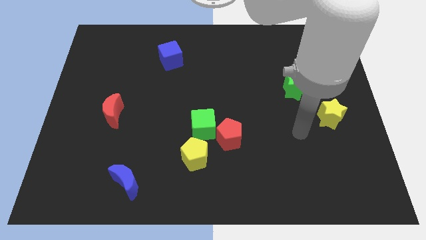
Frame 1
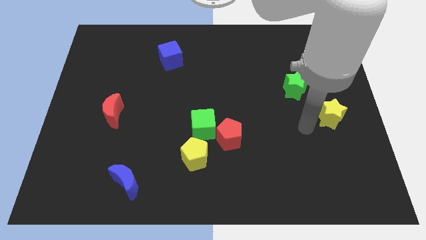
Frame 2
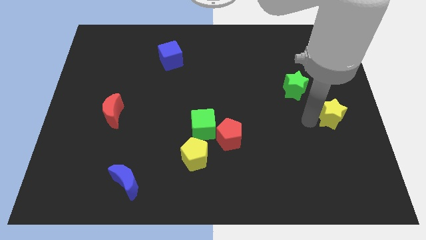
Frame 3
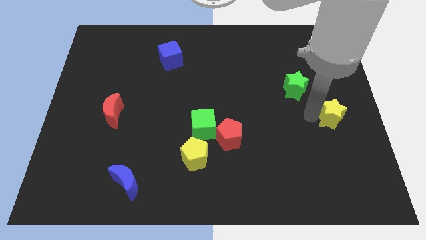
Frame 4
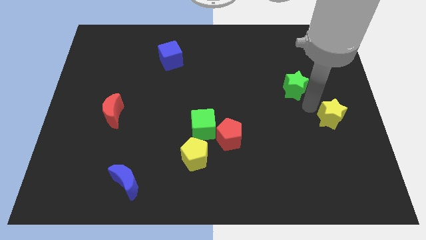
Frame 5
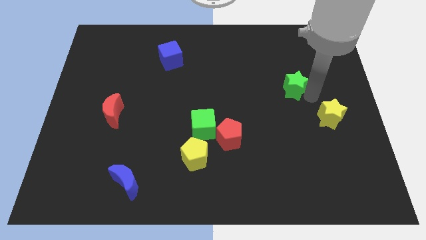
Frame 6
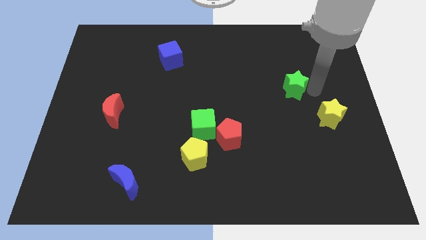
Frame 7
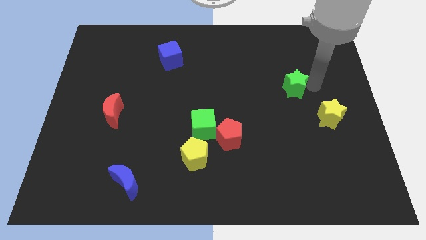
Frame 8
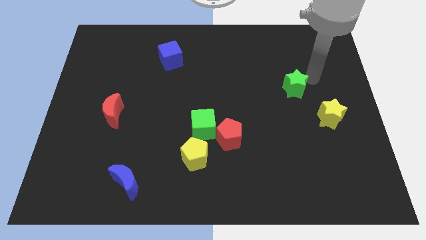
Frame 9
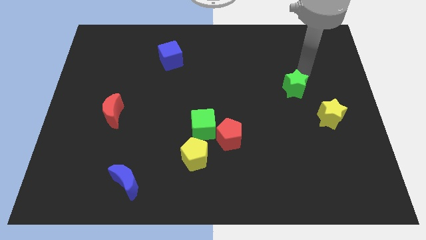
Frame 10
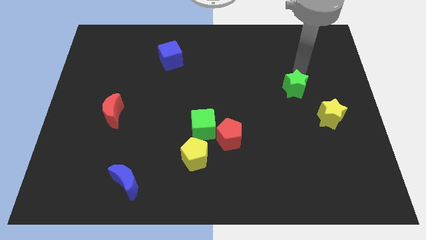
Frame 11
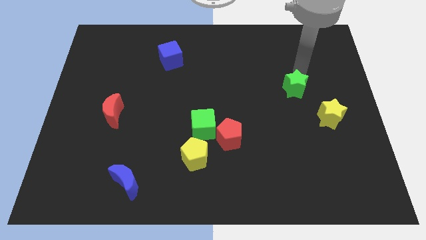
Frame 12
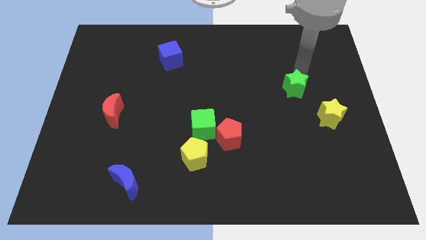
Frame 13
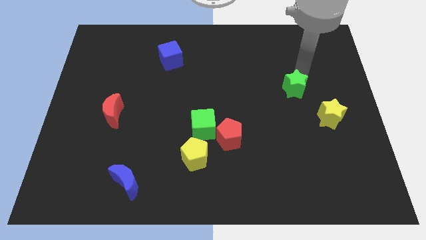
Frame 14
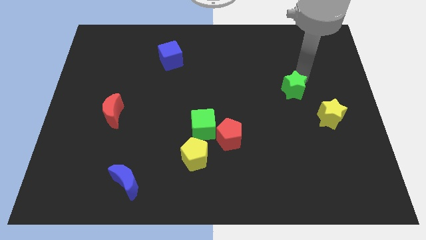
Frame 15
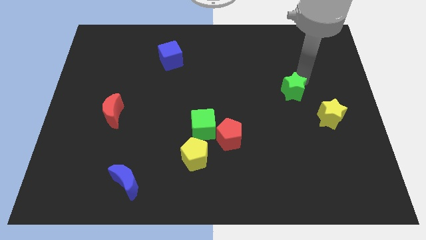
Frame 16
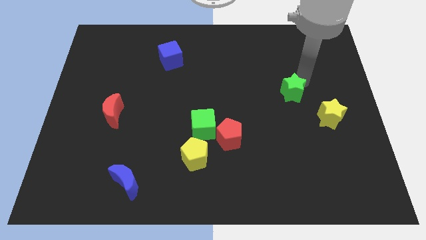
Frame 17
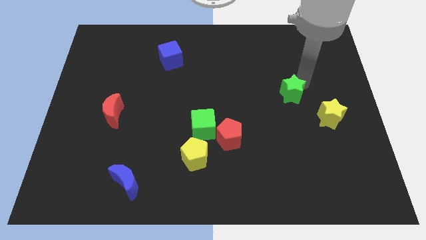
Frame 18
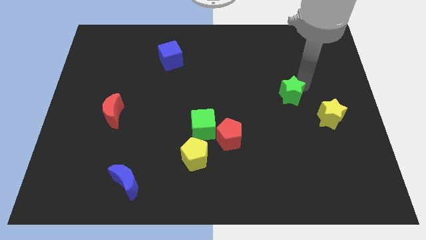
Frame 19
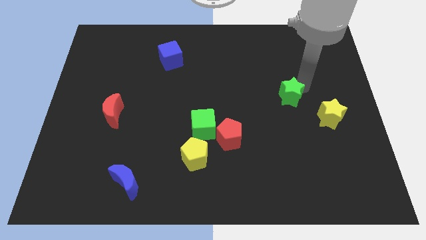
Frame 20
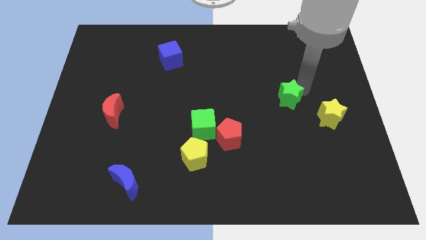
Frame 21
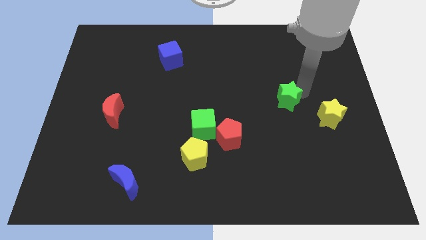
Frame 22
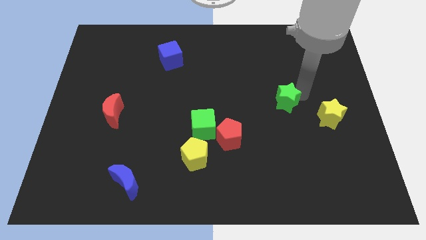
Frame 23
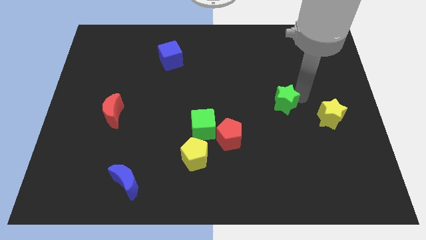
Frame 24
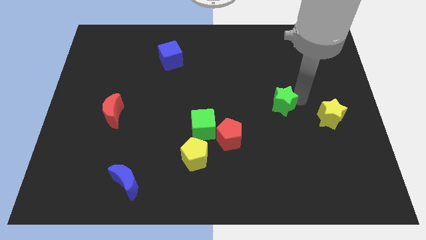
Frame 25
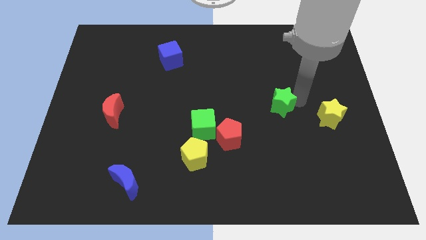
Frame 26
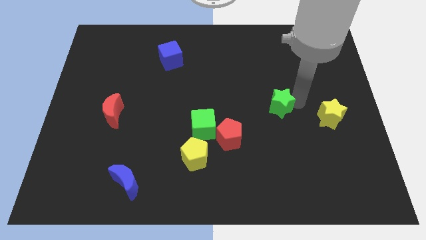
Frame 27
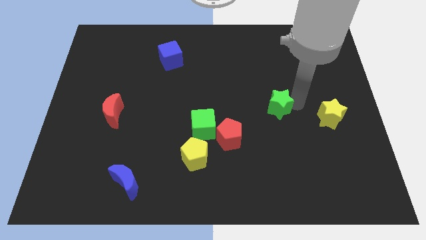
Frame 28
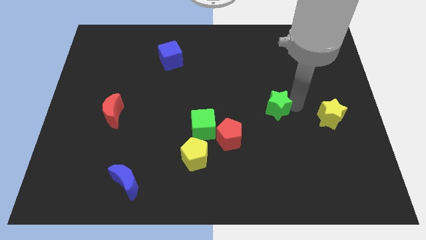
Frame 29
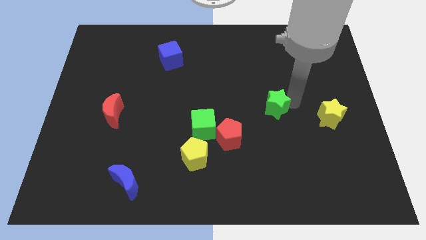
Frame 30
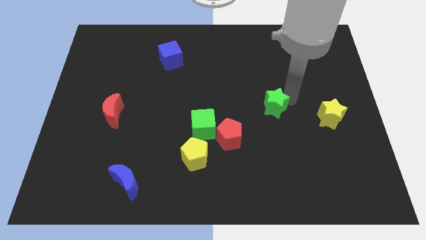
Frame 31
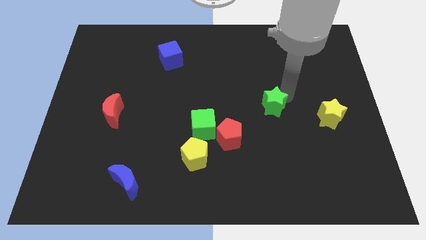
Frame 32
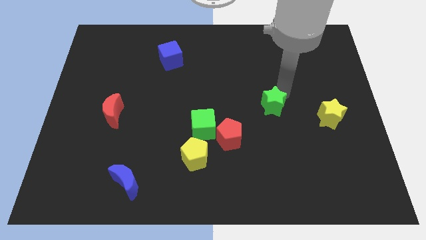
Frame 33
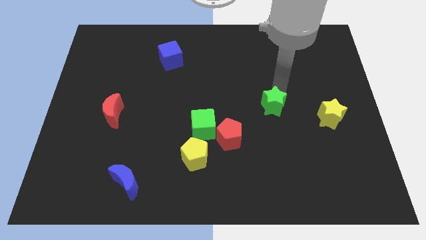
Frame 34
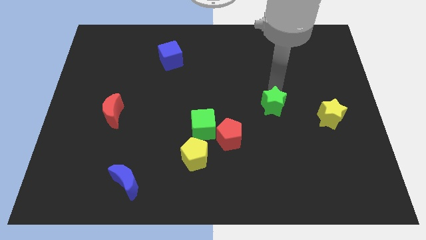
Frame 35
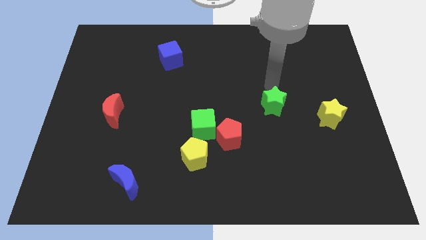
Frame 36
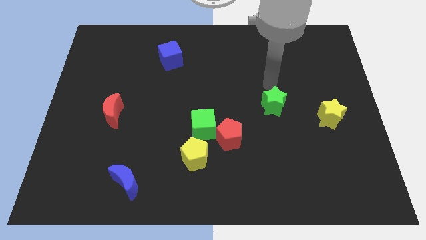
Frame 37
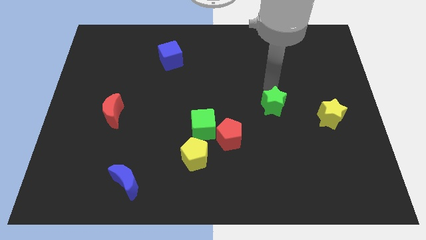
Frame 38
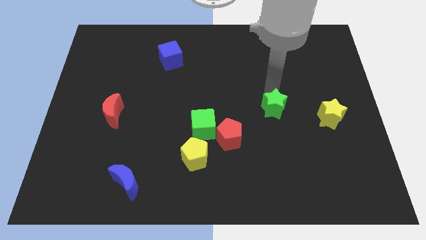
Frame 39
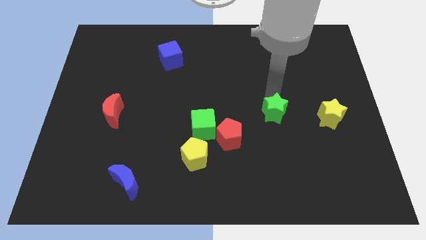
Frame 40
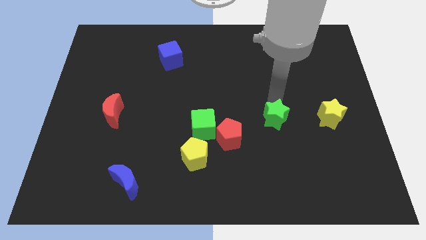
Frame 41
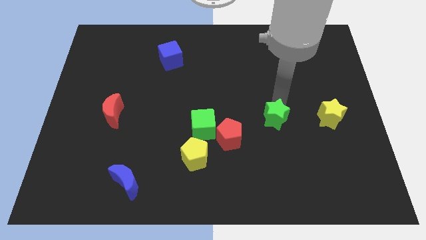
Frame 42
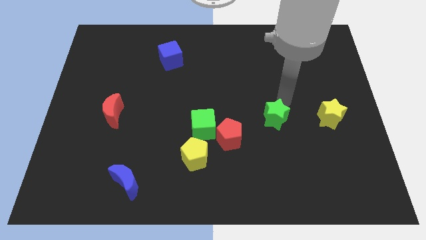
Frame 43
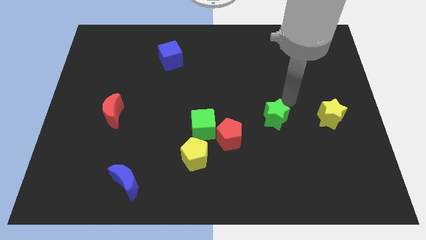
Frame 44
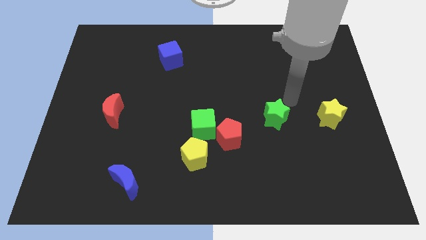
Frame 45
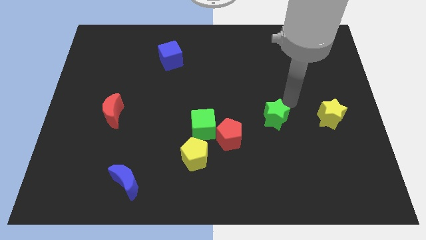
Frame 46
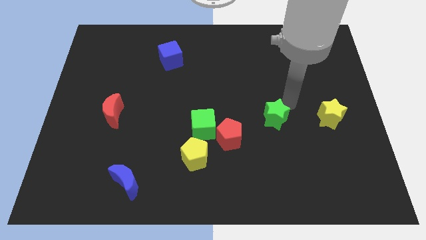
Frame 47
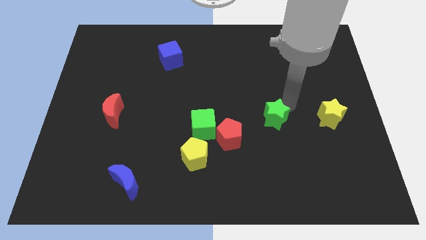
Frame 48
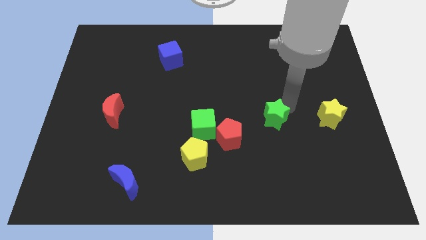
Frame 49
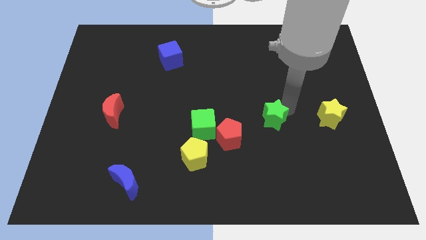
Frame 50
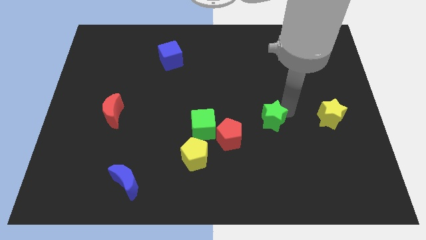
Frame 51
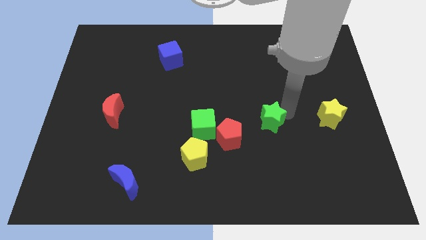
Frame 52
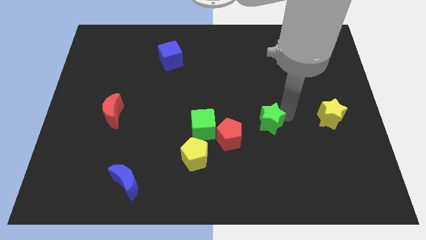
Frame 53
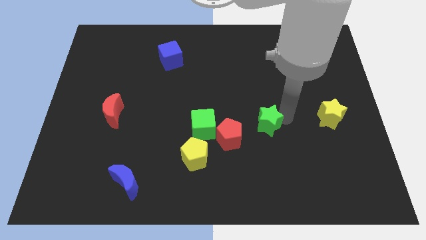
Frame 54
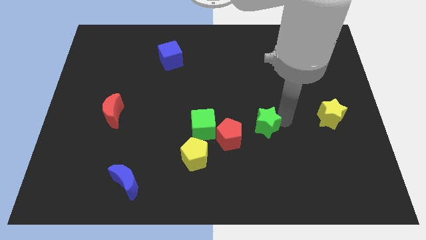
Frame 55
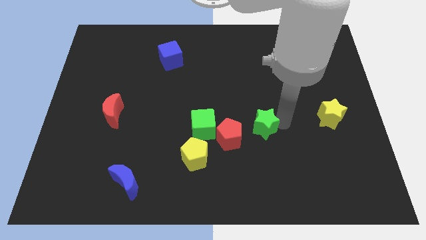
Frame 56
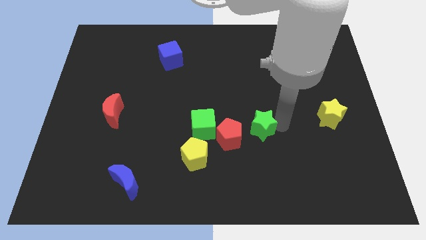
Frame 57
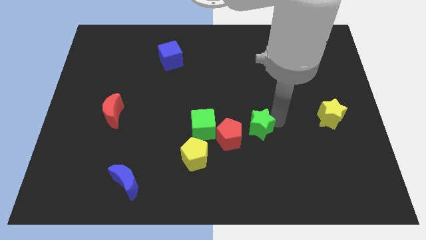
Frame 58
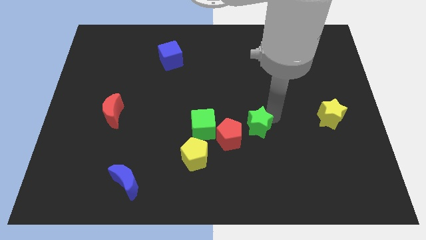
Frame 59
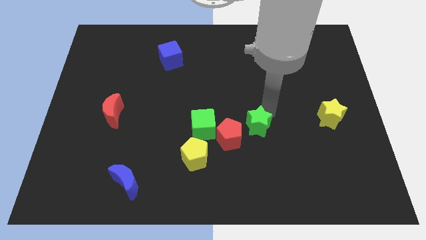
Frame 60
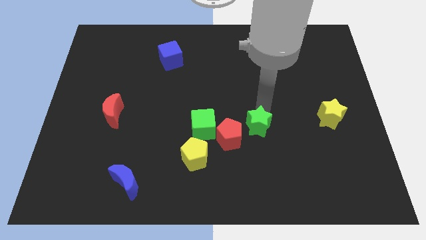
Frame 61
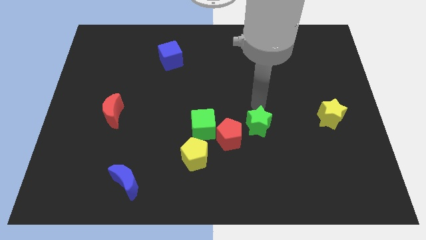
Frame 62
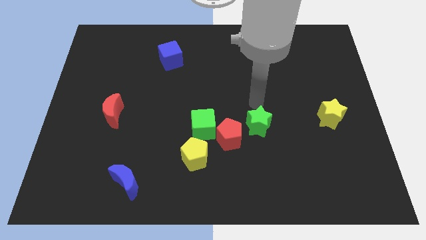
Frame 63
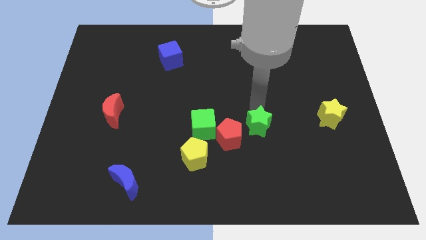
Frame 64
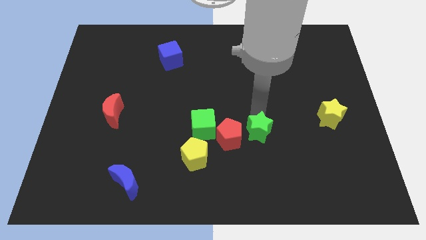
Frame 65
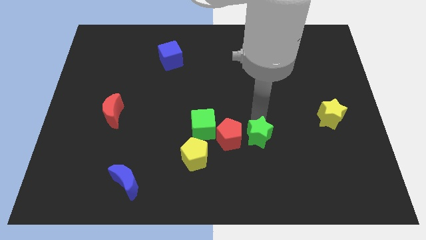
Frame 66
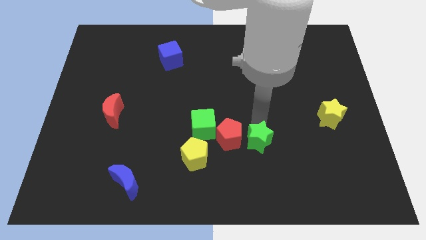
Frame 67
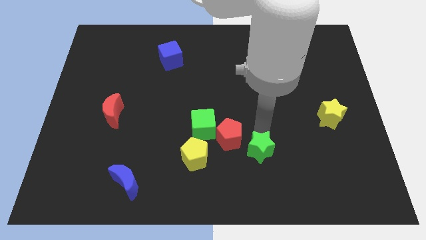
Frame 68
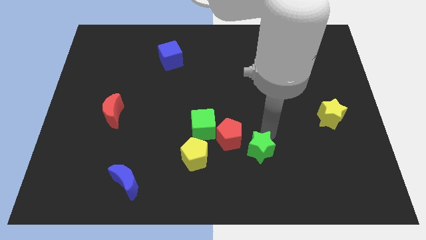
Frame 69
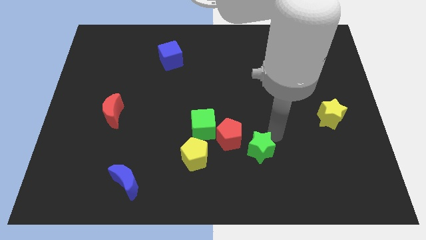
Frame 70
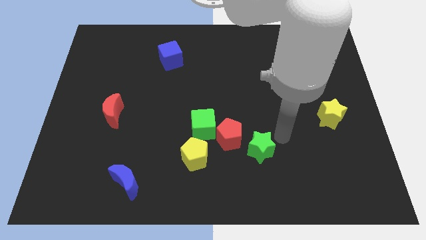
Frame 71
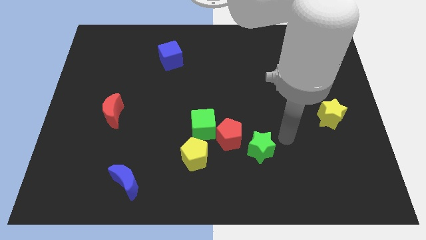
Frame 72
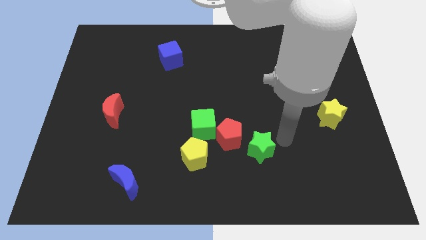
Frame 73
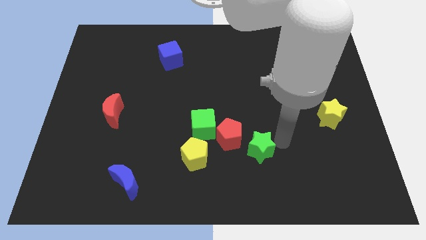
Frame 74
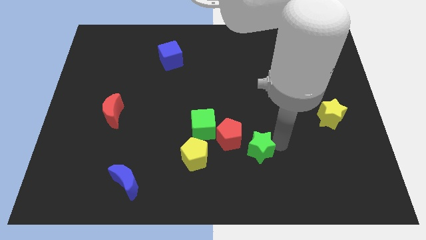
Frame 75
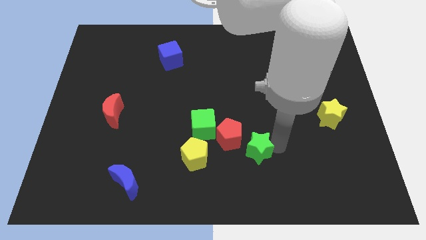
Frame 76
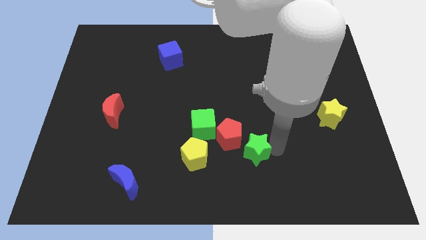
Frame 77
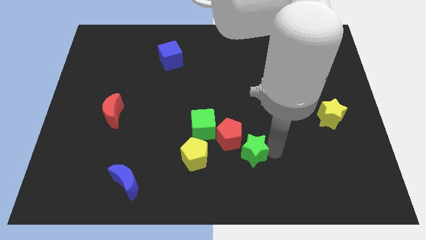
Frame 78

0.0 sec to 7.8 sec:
push the green star diagonally down and to the left

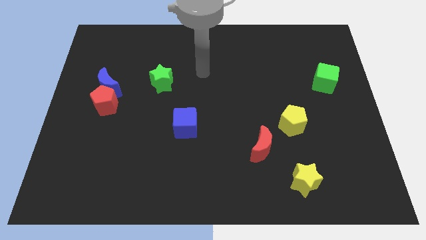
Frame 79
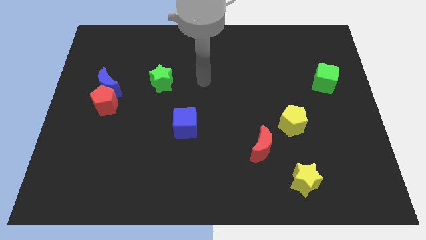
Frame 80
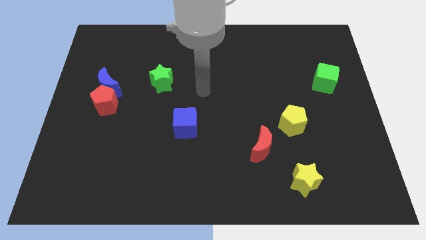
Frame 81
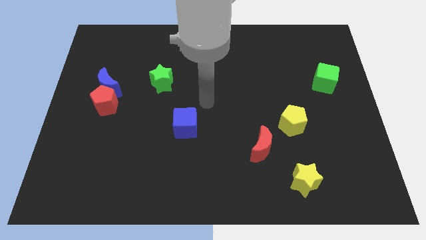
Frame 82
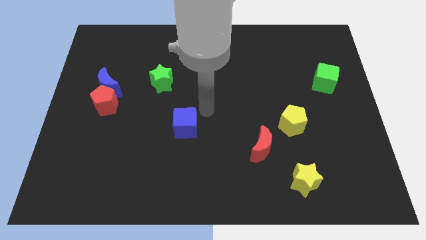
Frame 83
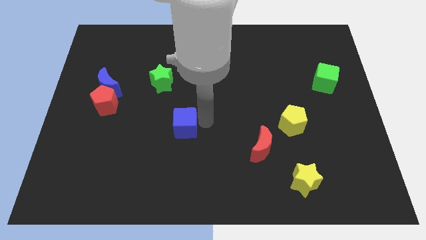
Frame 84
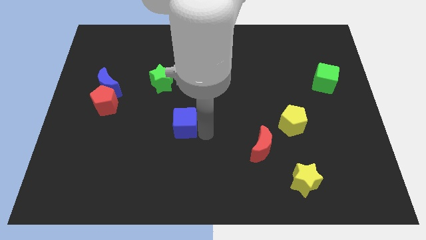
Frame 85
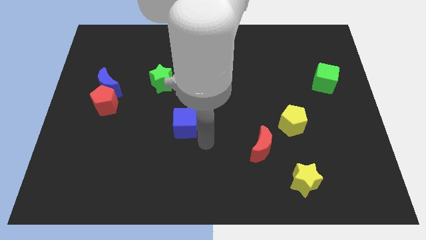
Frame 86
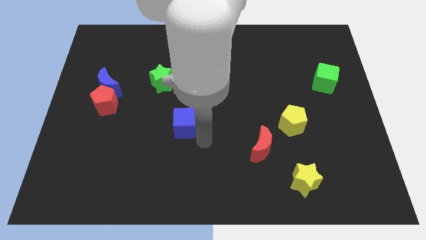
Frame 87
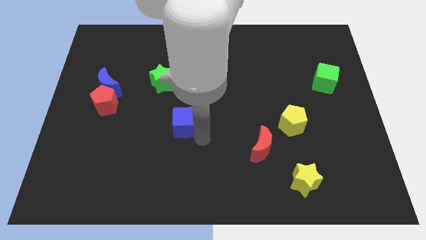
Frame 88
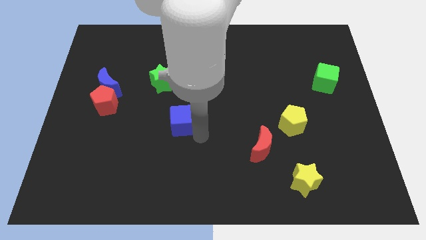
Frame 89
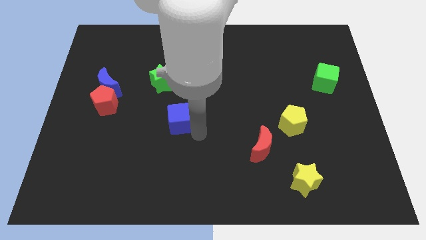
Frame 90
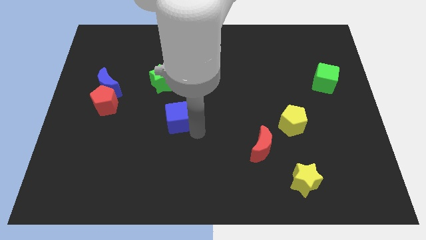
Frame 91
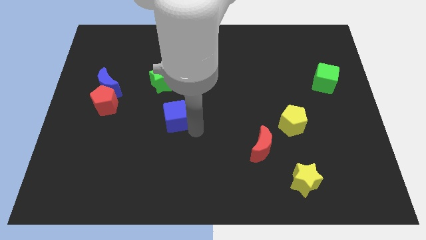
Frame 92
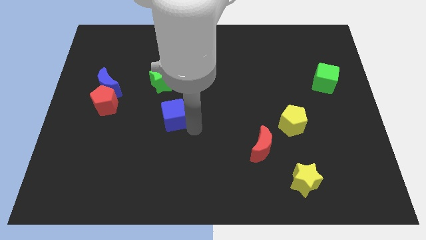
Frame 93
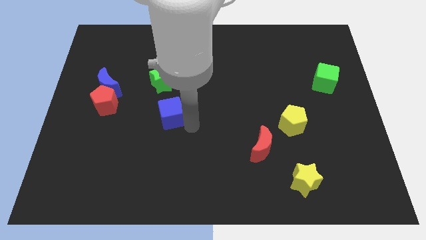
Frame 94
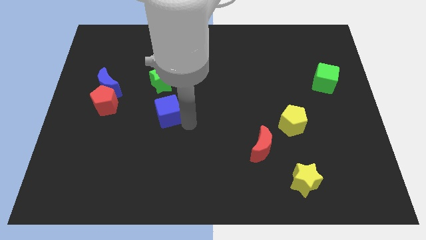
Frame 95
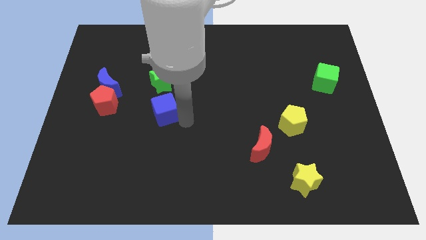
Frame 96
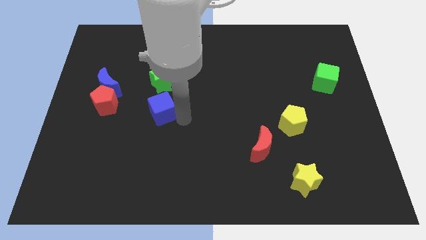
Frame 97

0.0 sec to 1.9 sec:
move the blue cube upwards and to the left a little bit
